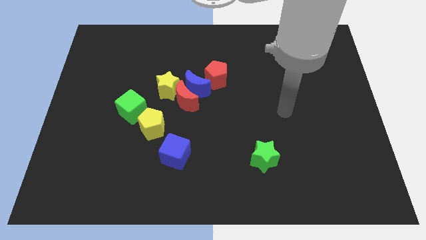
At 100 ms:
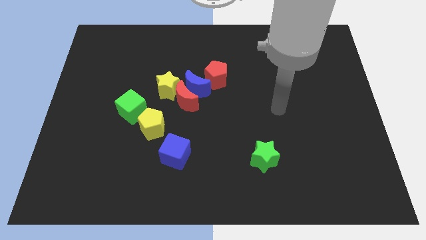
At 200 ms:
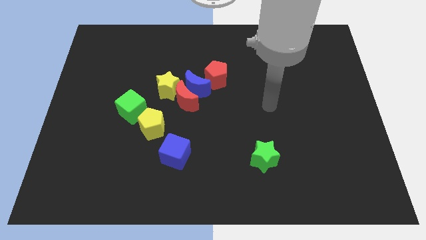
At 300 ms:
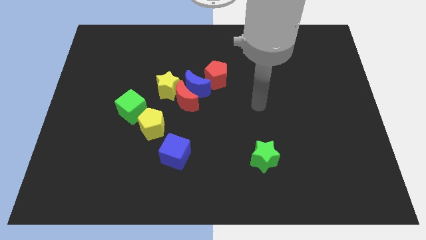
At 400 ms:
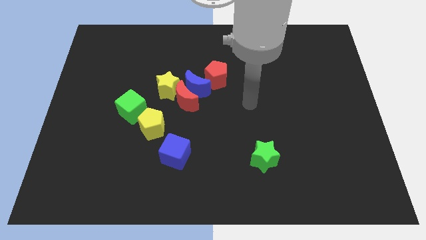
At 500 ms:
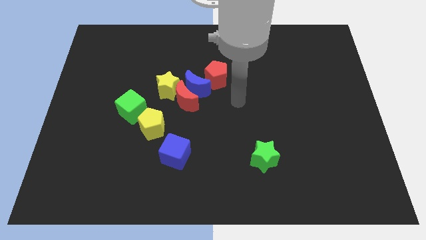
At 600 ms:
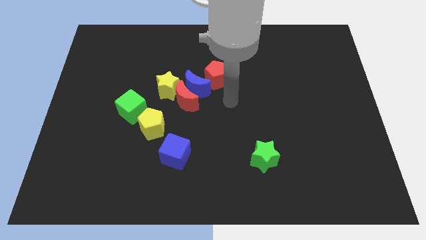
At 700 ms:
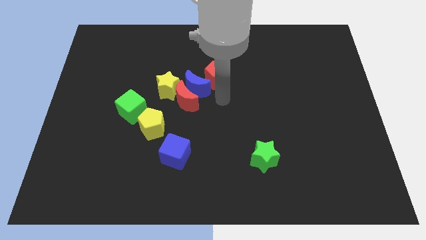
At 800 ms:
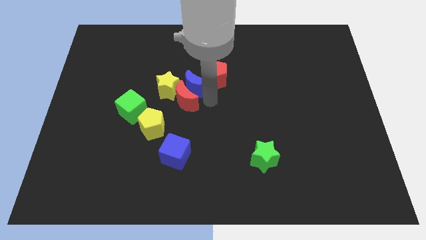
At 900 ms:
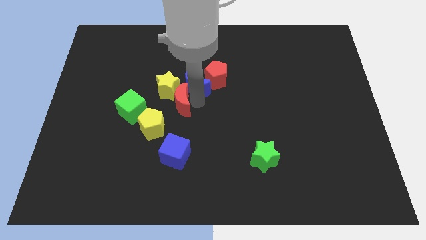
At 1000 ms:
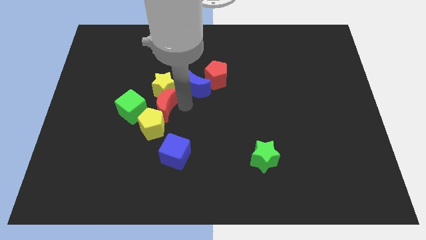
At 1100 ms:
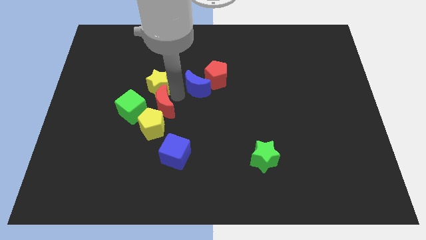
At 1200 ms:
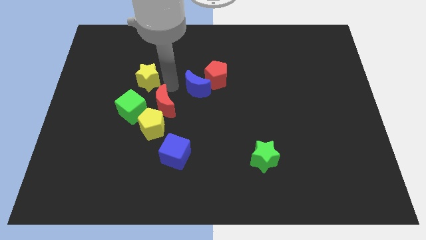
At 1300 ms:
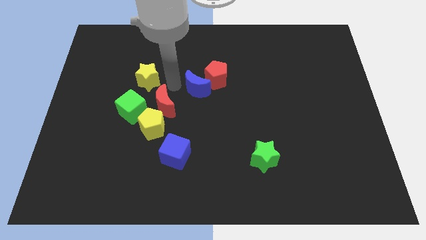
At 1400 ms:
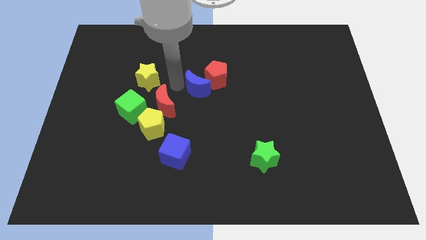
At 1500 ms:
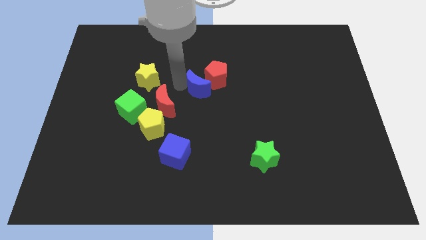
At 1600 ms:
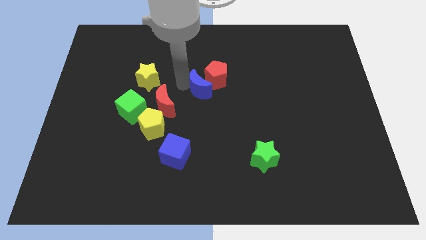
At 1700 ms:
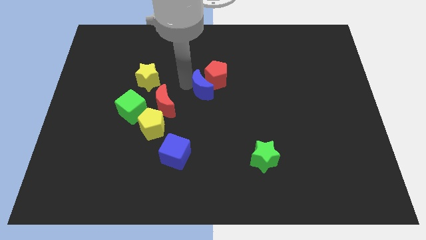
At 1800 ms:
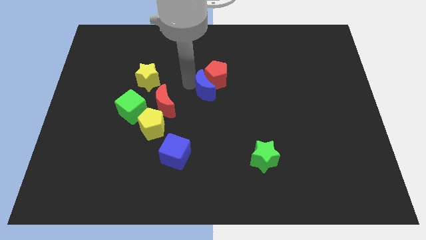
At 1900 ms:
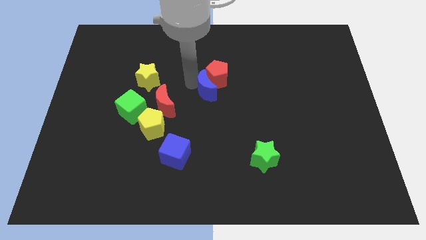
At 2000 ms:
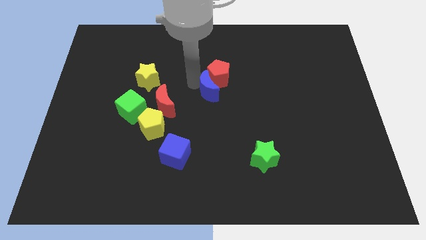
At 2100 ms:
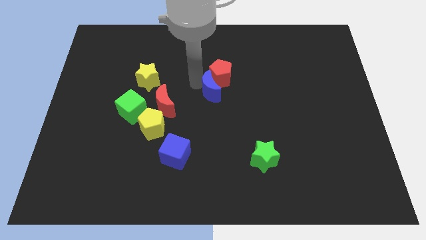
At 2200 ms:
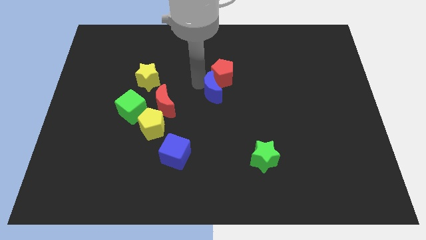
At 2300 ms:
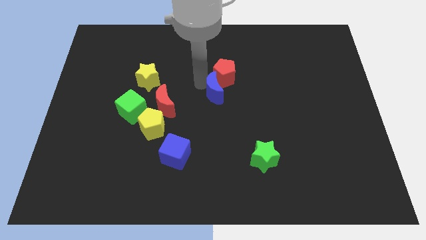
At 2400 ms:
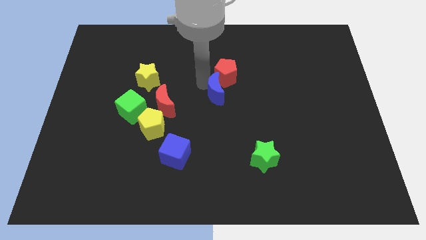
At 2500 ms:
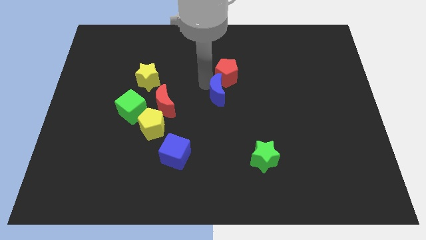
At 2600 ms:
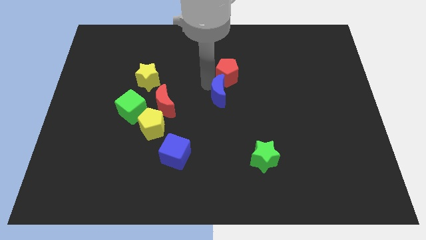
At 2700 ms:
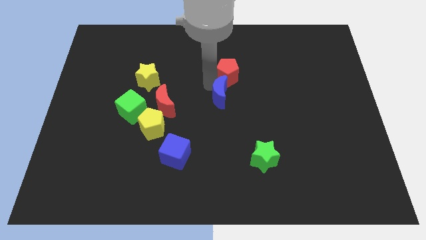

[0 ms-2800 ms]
separate the blue moon from the red moon, red pentagon, and yellow star

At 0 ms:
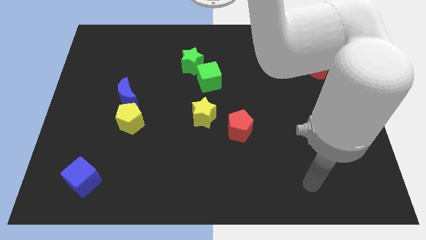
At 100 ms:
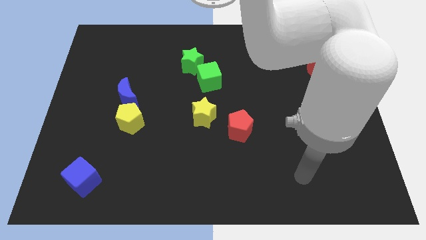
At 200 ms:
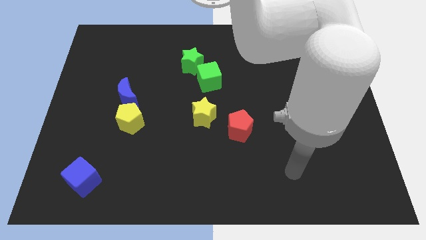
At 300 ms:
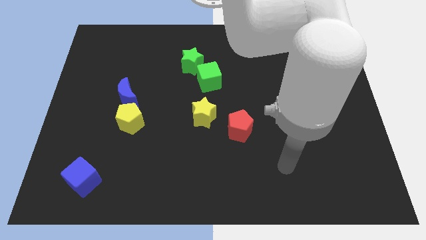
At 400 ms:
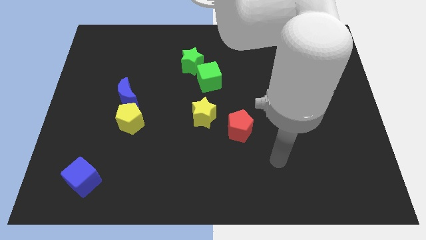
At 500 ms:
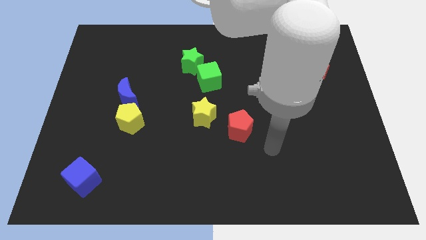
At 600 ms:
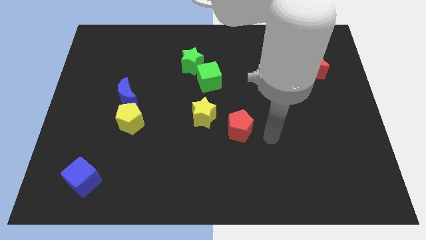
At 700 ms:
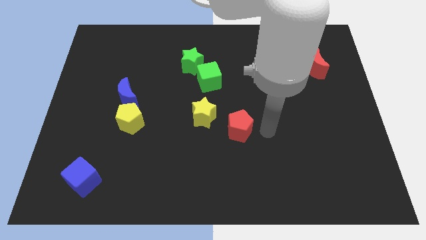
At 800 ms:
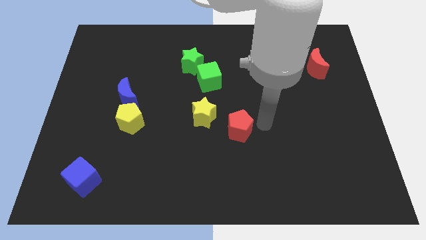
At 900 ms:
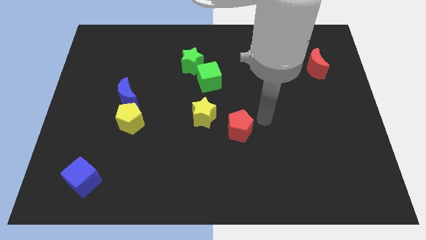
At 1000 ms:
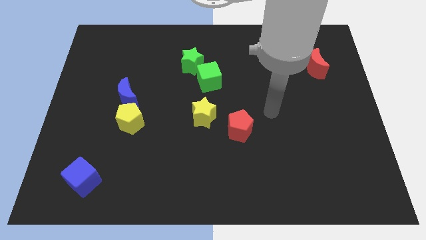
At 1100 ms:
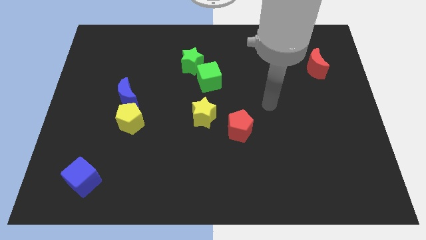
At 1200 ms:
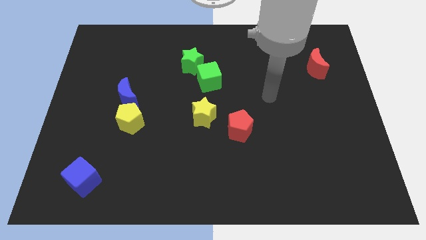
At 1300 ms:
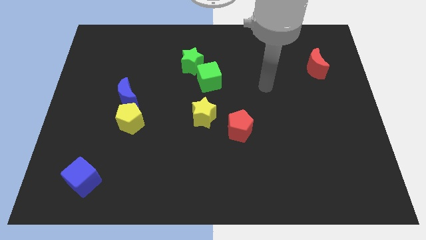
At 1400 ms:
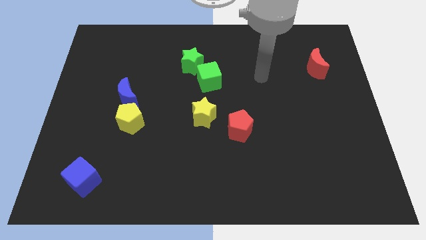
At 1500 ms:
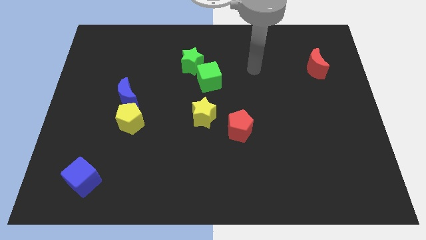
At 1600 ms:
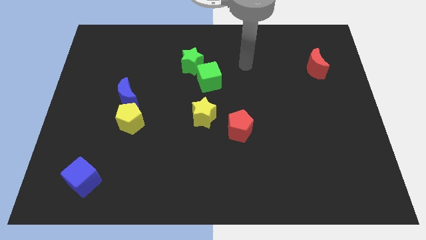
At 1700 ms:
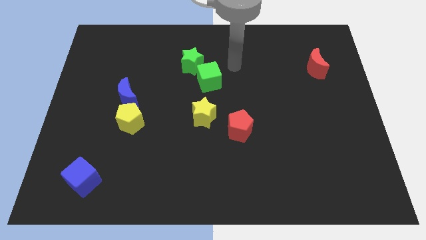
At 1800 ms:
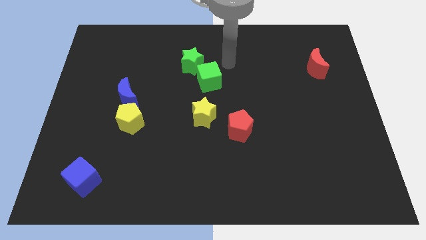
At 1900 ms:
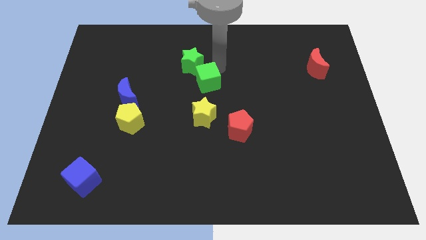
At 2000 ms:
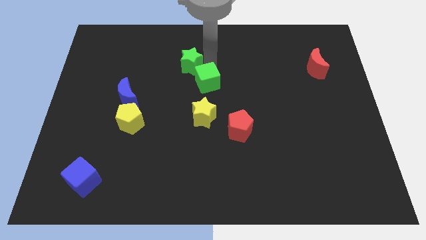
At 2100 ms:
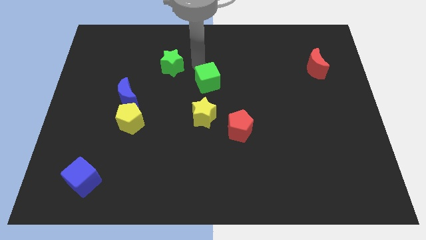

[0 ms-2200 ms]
separate the green cube from the green star

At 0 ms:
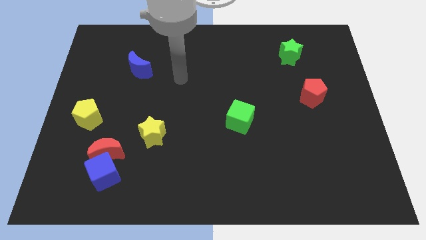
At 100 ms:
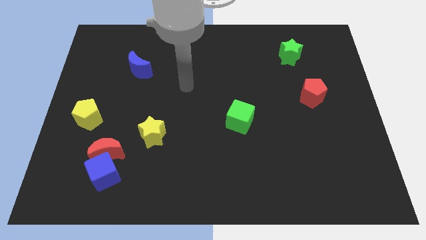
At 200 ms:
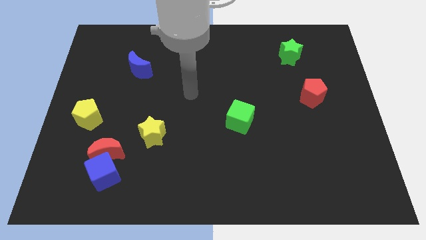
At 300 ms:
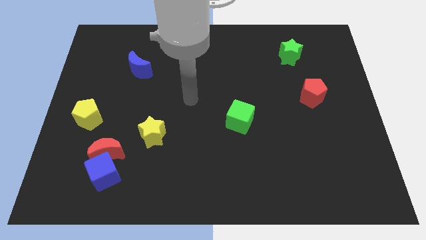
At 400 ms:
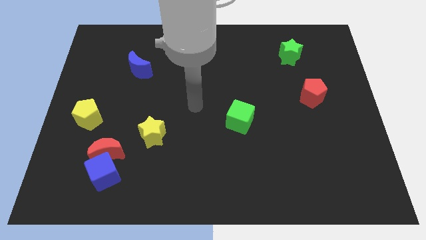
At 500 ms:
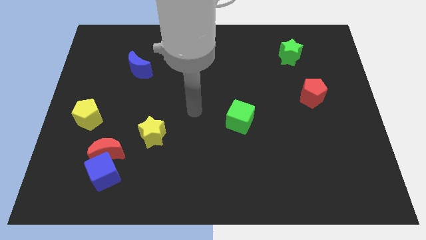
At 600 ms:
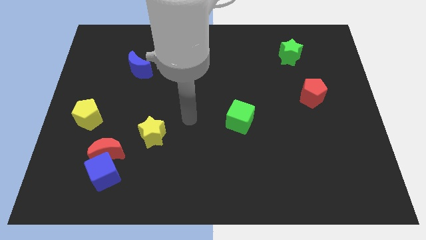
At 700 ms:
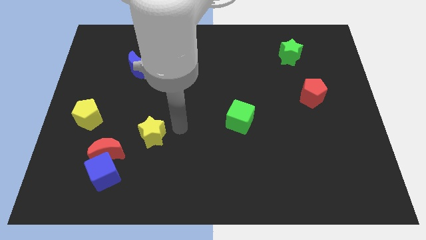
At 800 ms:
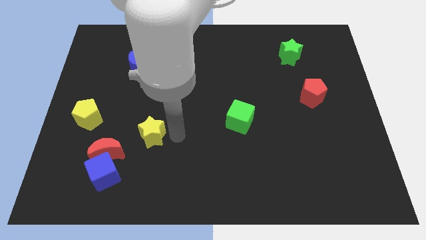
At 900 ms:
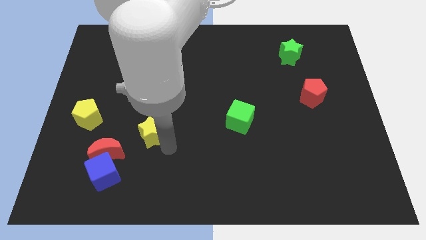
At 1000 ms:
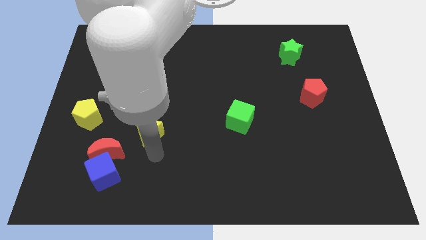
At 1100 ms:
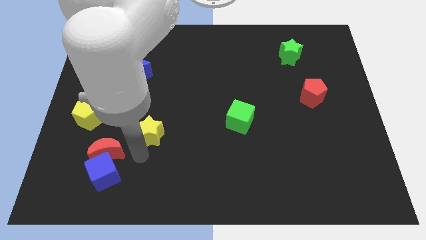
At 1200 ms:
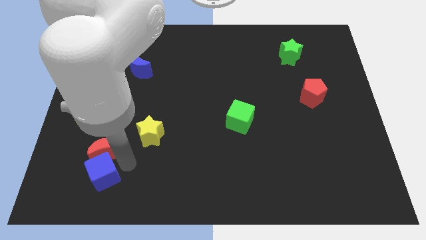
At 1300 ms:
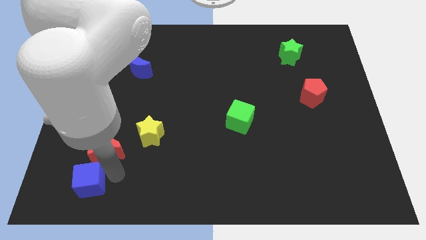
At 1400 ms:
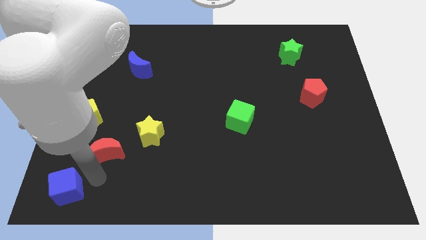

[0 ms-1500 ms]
move the red moon away from the blue cube

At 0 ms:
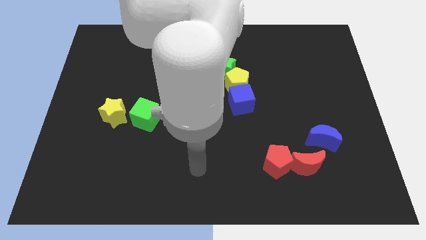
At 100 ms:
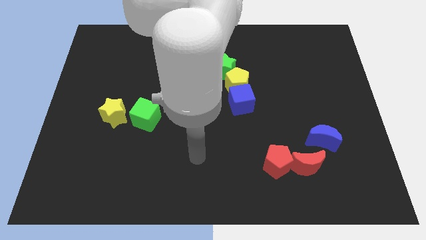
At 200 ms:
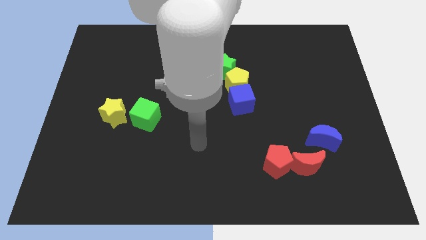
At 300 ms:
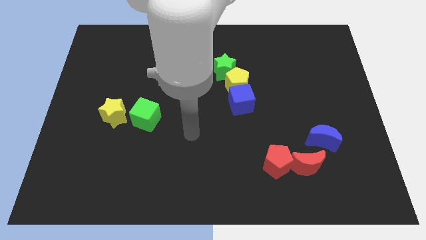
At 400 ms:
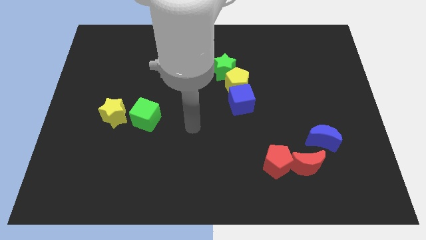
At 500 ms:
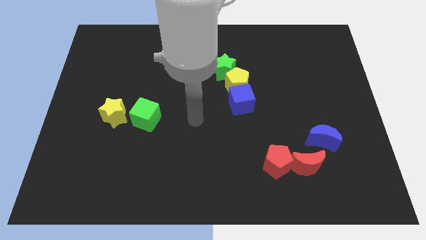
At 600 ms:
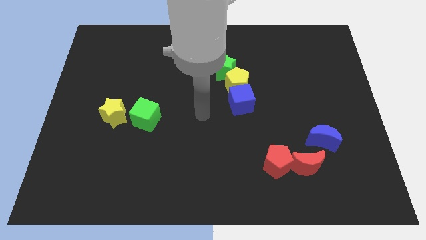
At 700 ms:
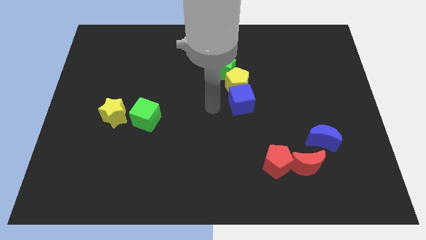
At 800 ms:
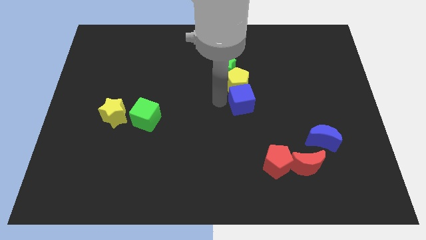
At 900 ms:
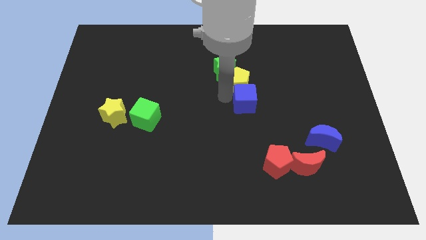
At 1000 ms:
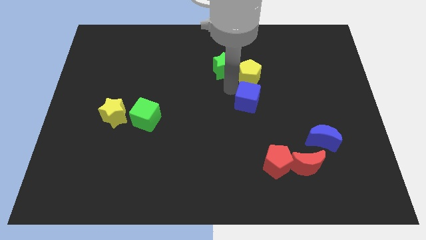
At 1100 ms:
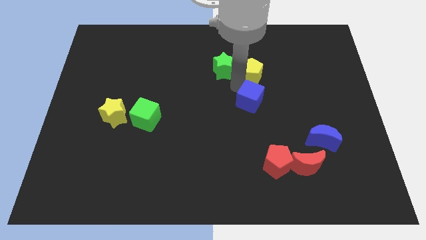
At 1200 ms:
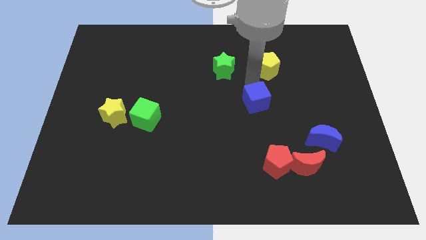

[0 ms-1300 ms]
move the blue cube away from the yellow pentagon

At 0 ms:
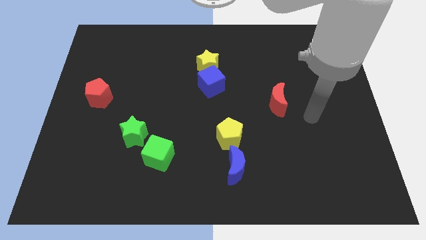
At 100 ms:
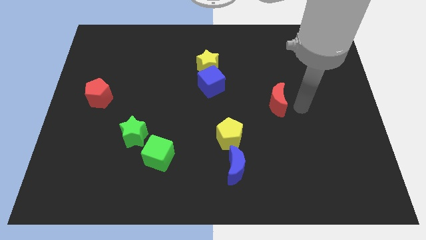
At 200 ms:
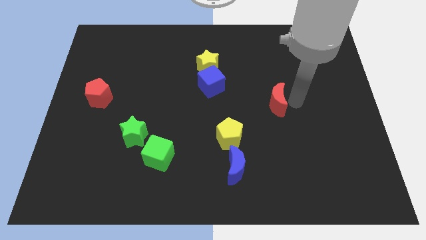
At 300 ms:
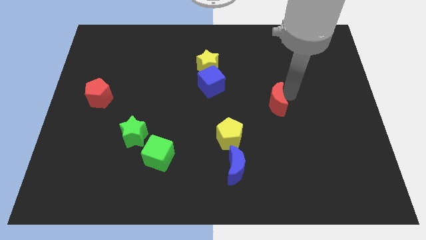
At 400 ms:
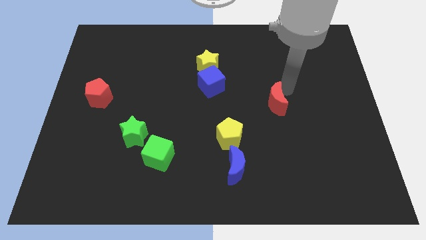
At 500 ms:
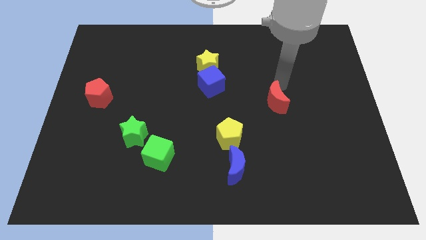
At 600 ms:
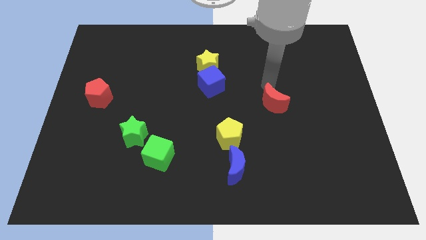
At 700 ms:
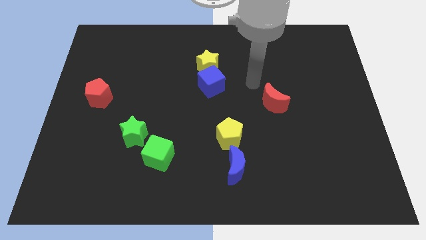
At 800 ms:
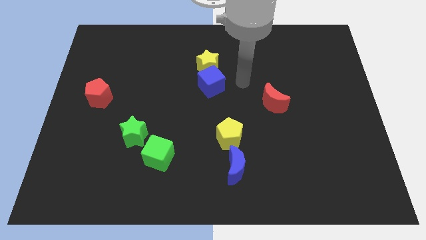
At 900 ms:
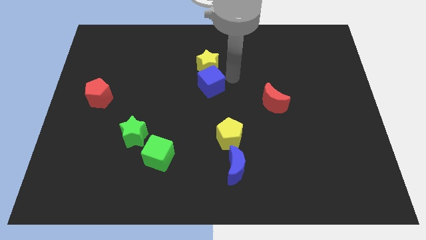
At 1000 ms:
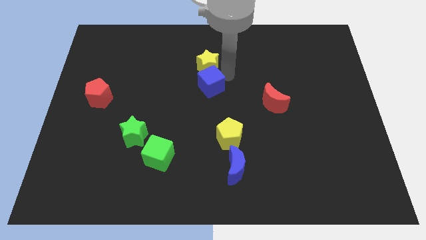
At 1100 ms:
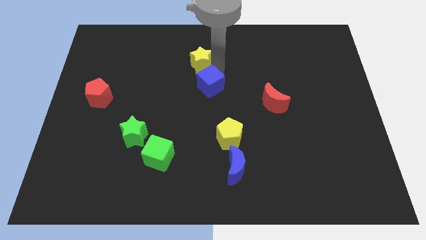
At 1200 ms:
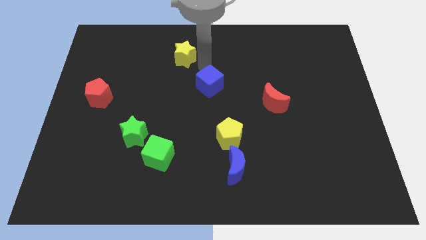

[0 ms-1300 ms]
pull the blue cube apart from the yellow star
